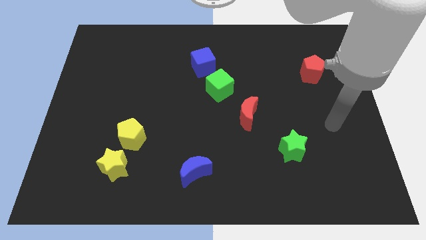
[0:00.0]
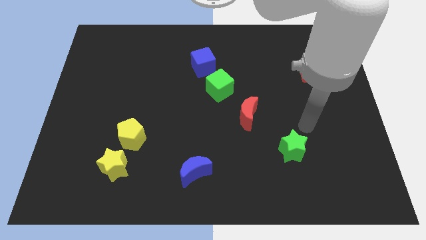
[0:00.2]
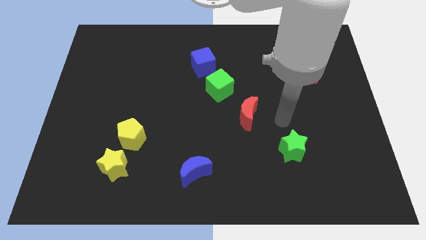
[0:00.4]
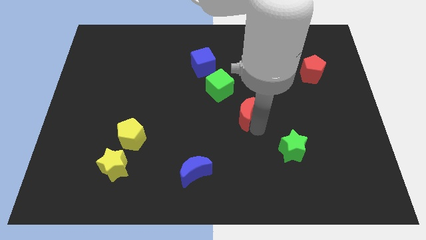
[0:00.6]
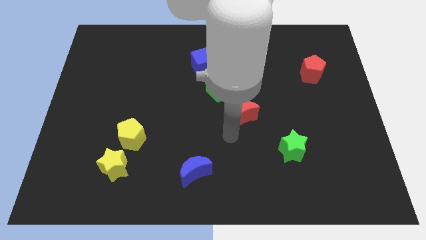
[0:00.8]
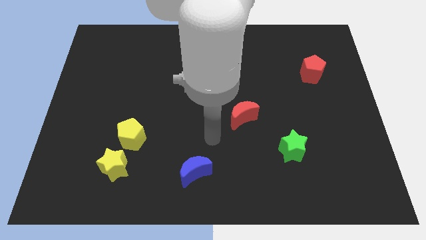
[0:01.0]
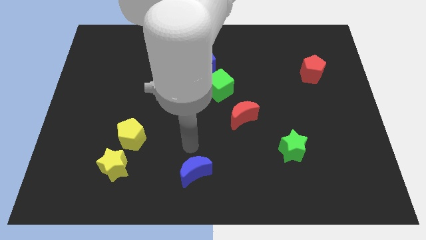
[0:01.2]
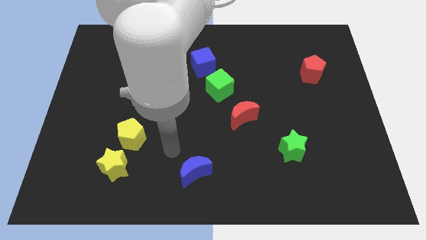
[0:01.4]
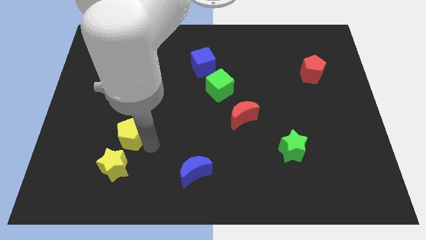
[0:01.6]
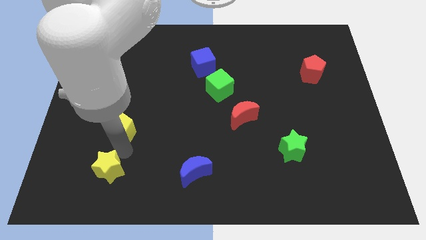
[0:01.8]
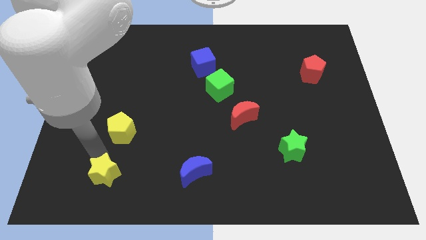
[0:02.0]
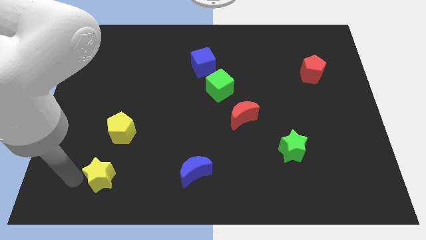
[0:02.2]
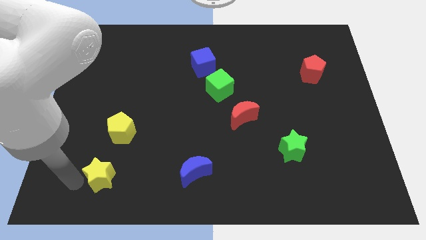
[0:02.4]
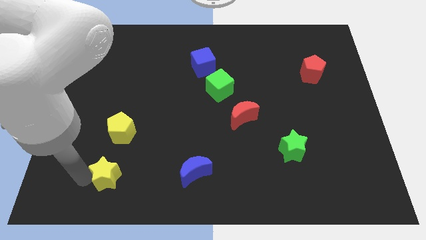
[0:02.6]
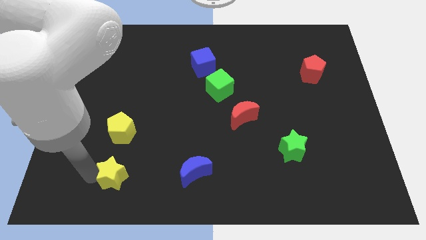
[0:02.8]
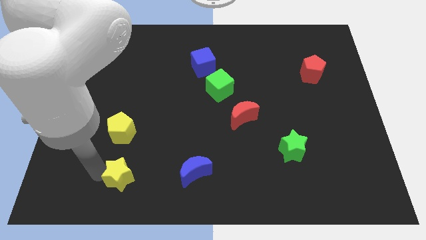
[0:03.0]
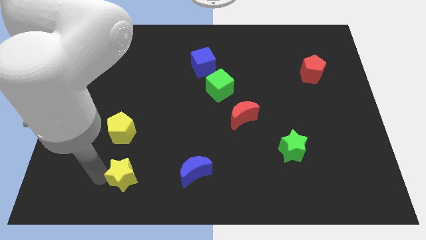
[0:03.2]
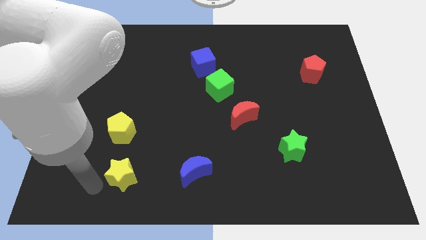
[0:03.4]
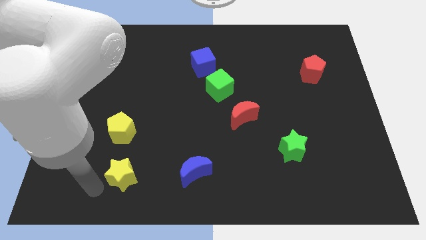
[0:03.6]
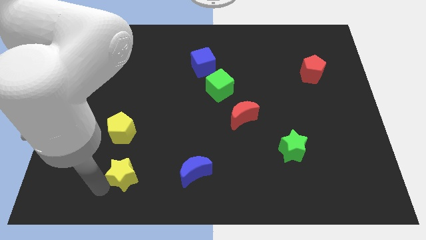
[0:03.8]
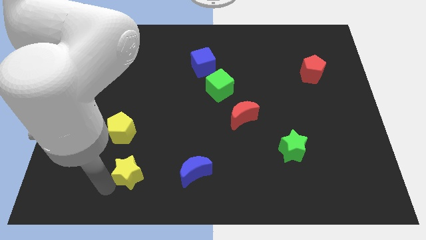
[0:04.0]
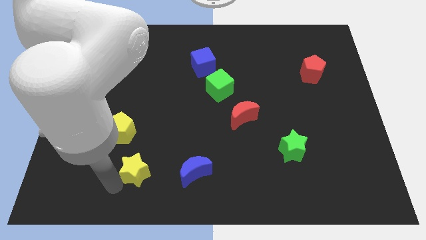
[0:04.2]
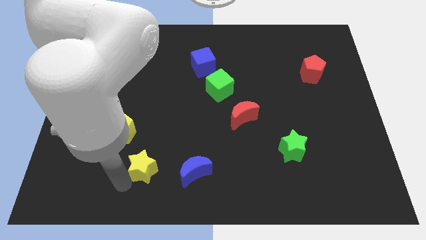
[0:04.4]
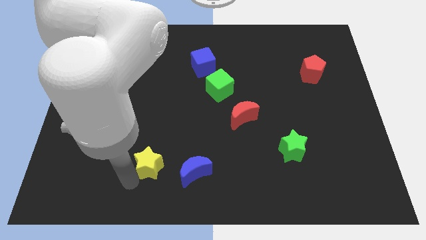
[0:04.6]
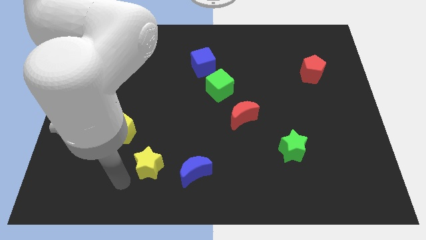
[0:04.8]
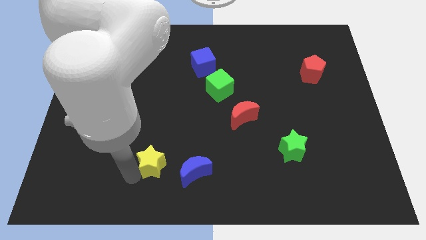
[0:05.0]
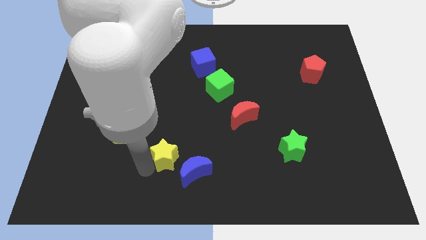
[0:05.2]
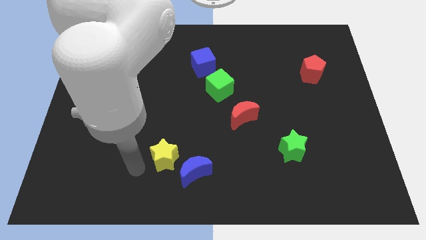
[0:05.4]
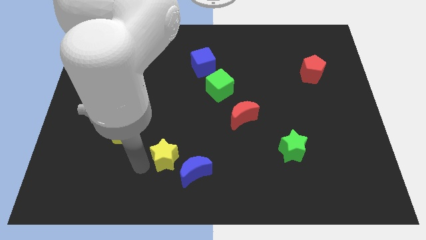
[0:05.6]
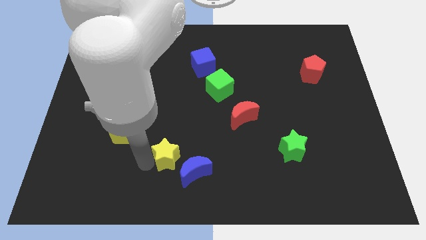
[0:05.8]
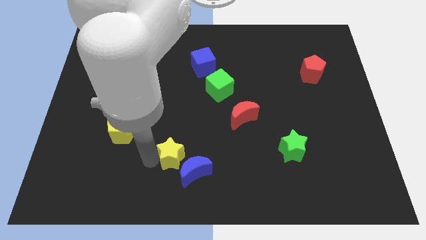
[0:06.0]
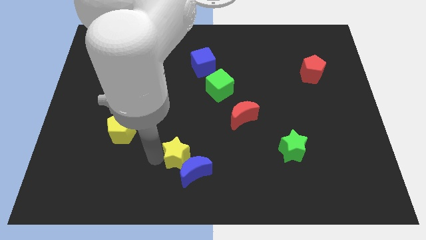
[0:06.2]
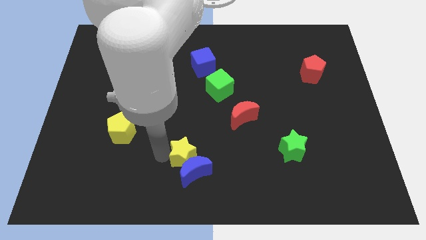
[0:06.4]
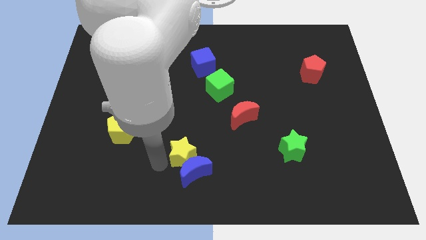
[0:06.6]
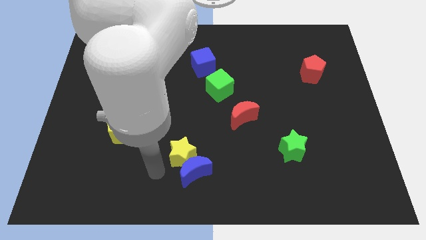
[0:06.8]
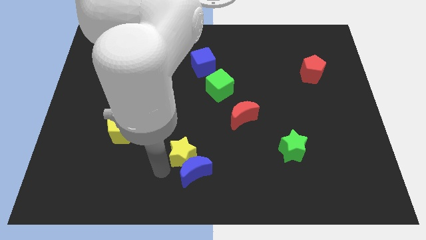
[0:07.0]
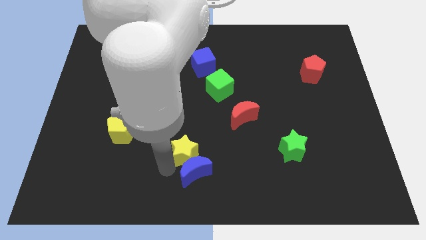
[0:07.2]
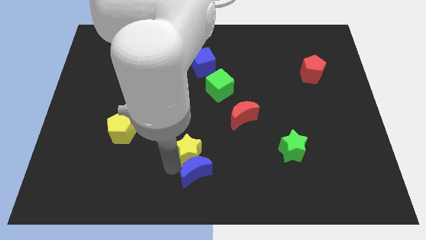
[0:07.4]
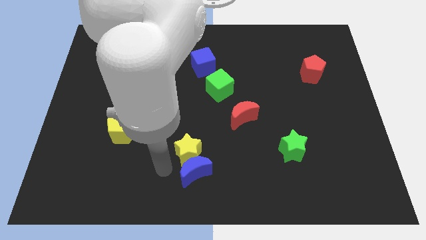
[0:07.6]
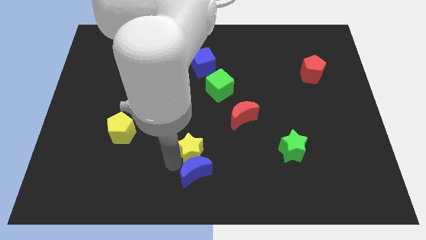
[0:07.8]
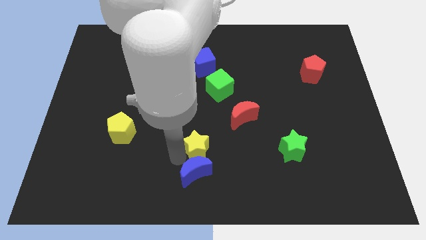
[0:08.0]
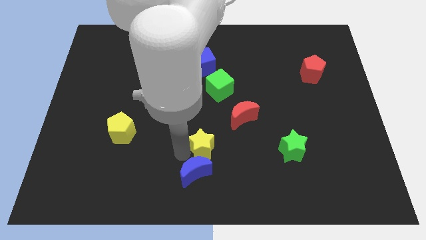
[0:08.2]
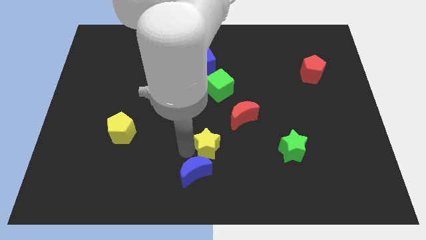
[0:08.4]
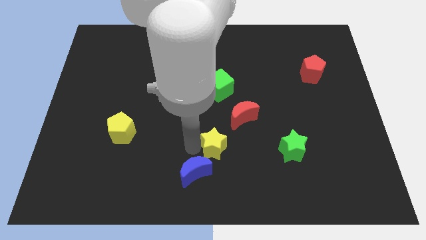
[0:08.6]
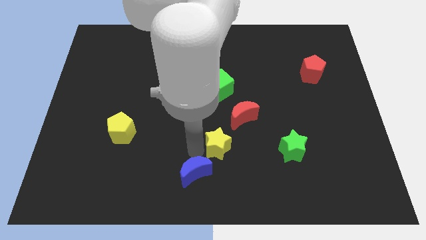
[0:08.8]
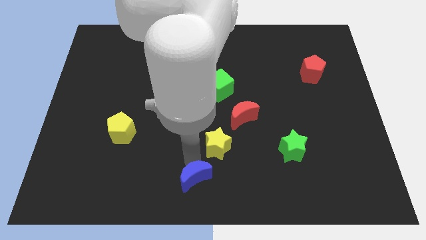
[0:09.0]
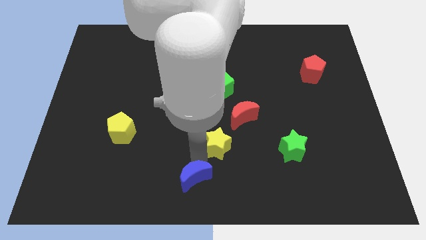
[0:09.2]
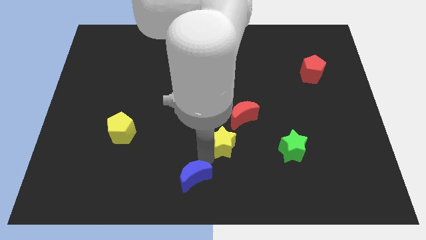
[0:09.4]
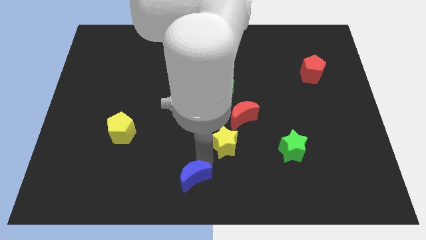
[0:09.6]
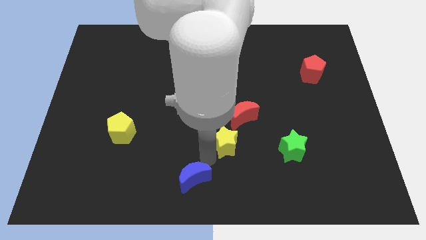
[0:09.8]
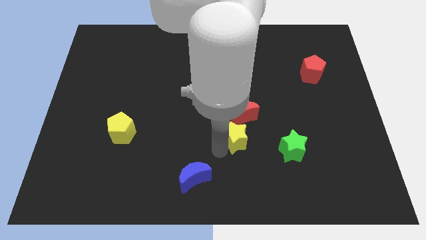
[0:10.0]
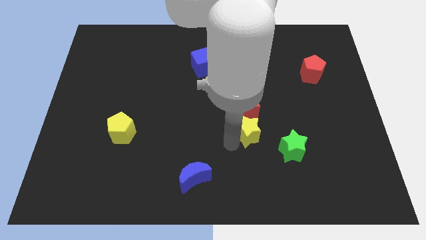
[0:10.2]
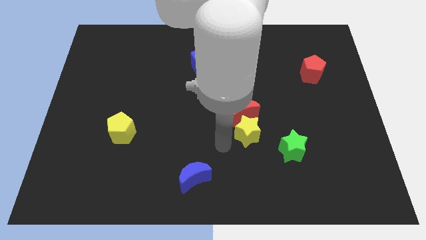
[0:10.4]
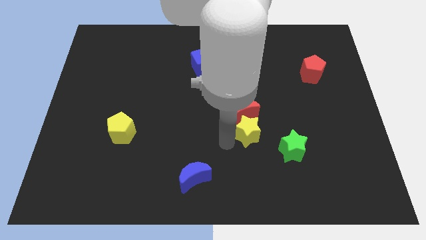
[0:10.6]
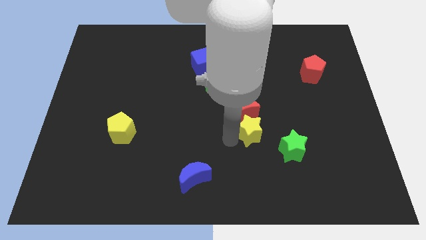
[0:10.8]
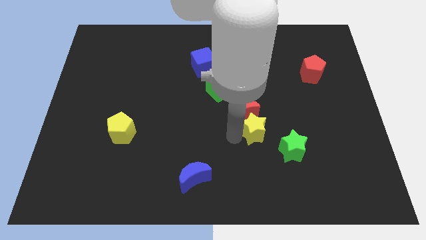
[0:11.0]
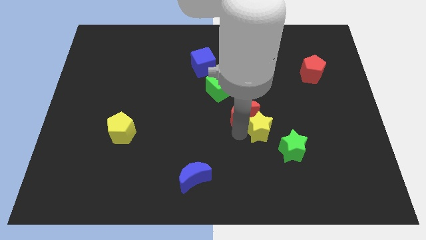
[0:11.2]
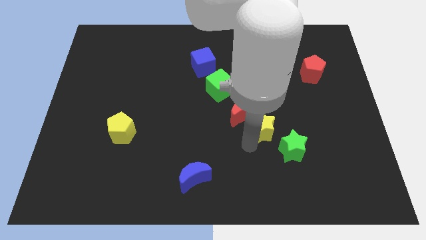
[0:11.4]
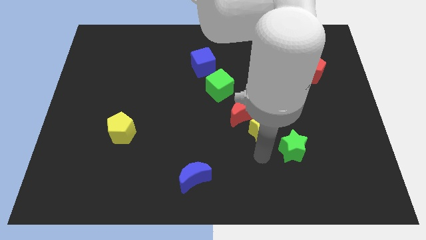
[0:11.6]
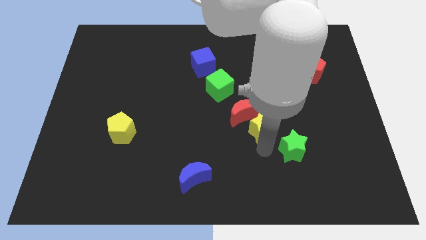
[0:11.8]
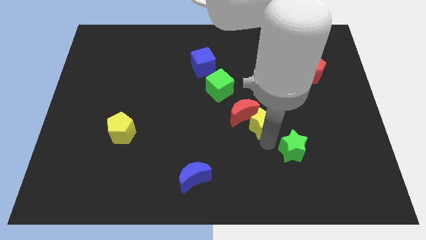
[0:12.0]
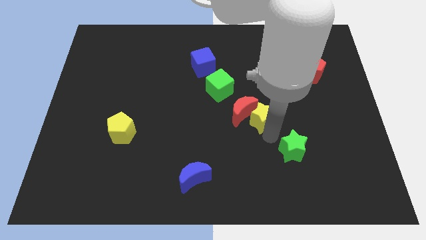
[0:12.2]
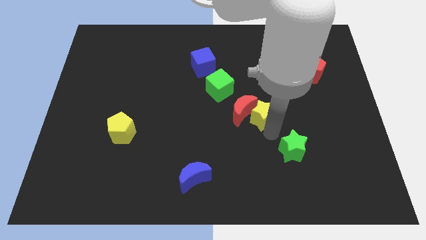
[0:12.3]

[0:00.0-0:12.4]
move the yellow star diagonally up and to the right of the red moon

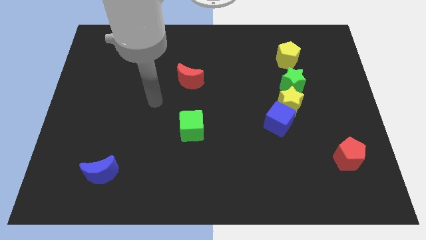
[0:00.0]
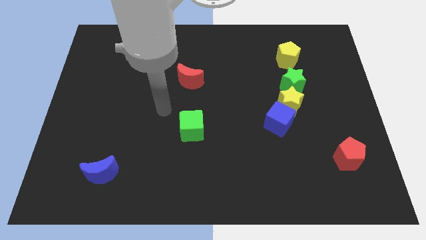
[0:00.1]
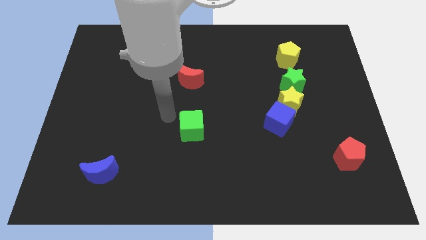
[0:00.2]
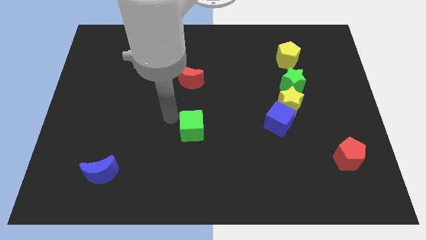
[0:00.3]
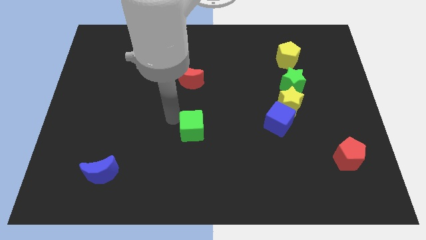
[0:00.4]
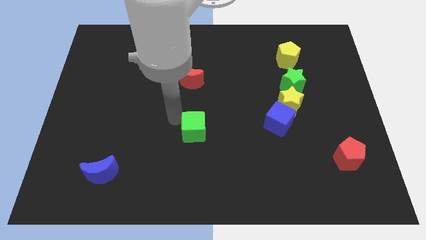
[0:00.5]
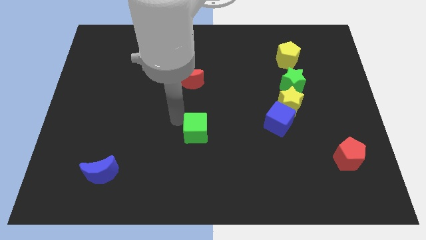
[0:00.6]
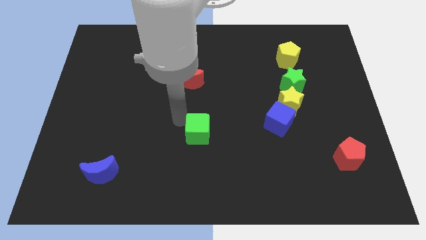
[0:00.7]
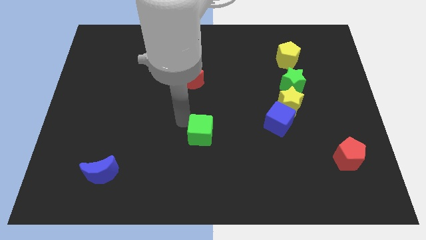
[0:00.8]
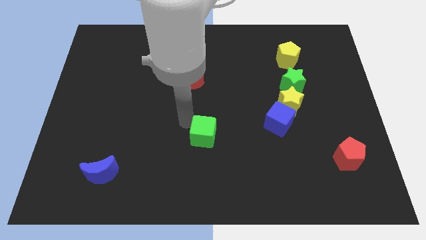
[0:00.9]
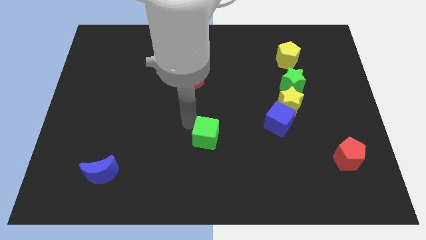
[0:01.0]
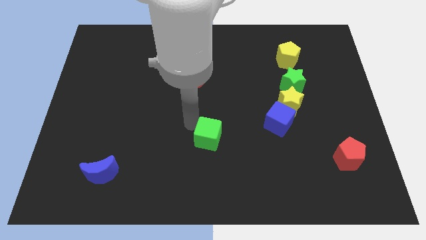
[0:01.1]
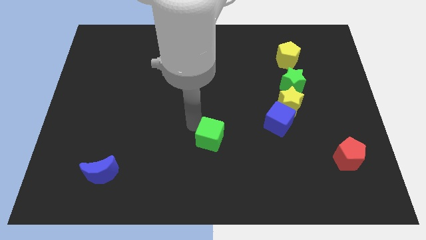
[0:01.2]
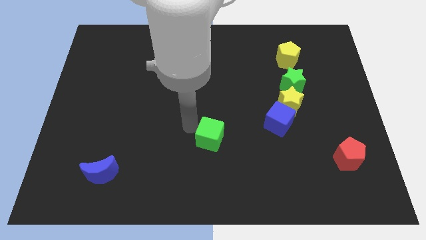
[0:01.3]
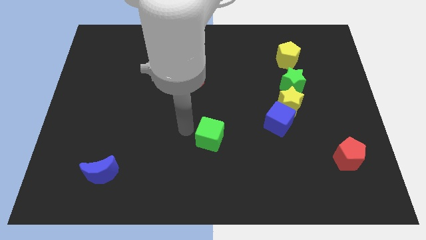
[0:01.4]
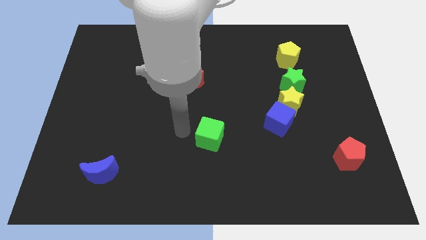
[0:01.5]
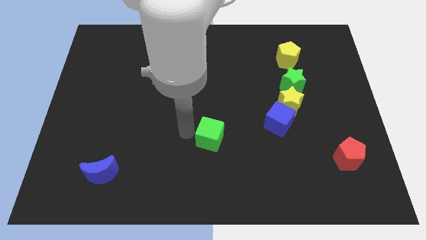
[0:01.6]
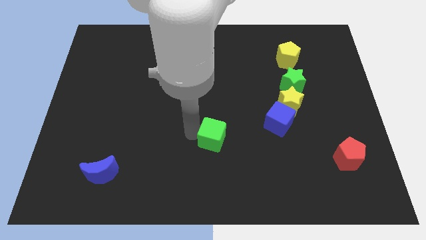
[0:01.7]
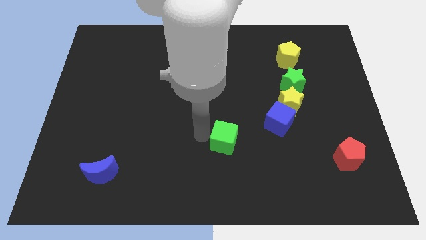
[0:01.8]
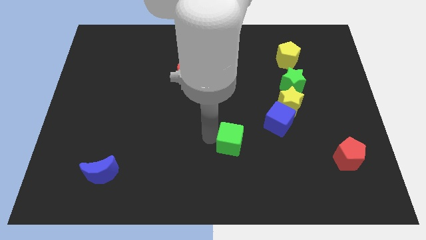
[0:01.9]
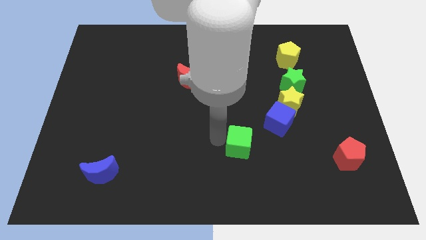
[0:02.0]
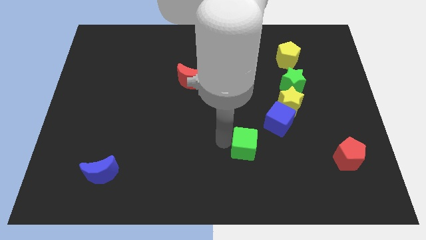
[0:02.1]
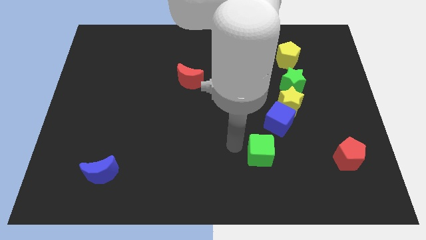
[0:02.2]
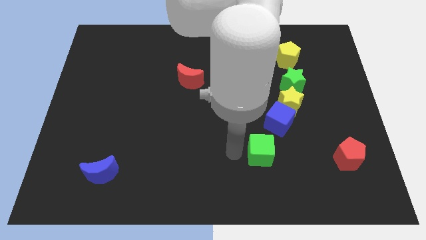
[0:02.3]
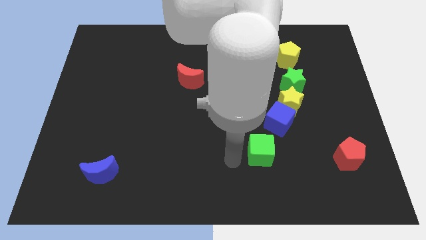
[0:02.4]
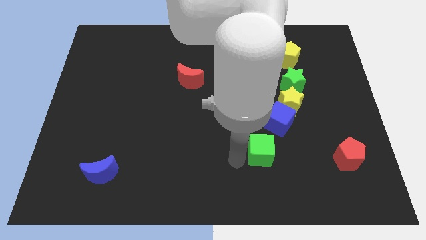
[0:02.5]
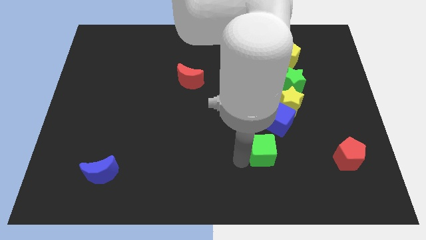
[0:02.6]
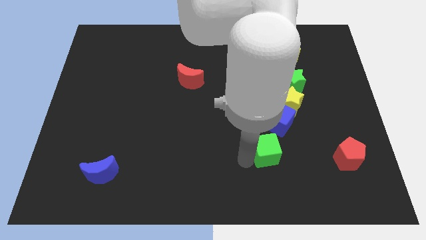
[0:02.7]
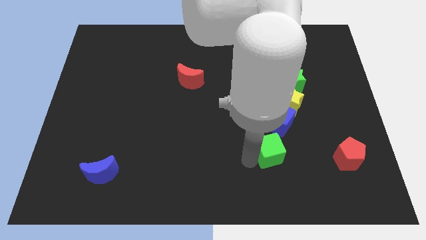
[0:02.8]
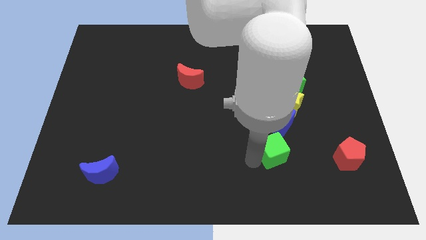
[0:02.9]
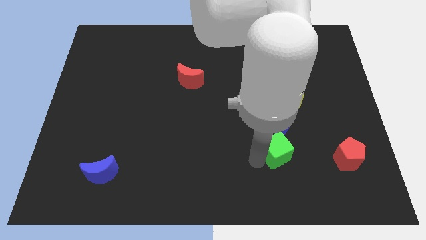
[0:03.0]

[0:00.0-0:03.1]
slide the green cube to the bottom of the yellow star
